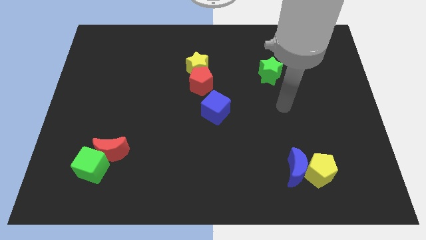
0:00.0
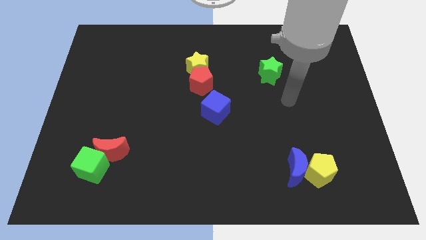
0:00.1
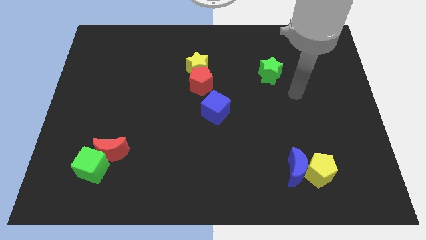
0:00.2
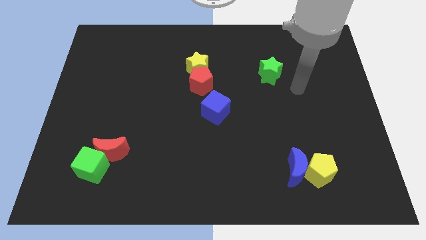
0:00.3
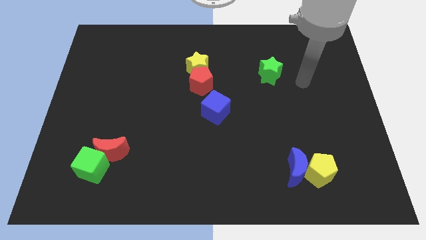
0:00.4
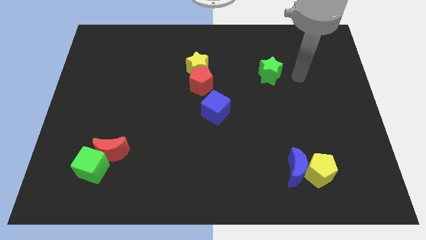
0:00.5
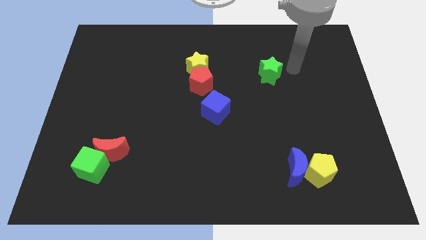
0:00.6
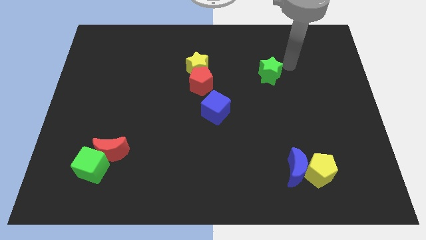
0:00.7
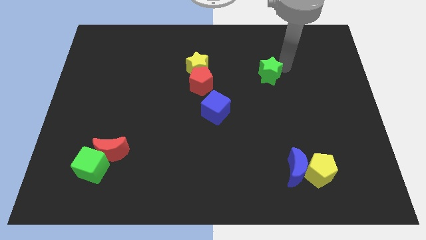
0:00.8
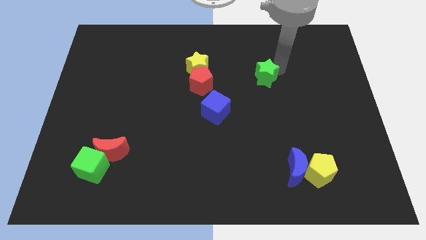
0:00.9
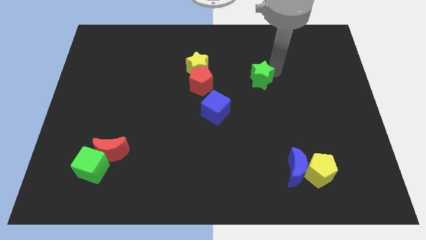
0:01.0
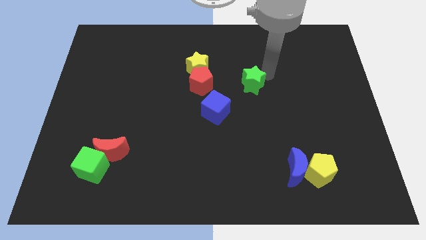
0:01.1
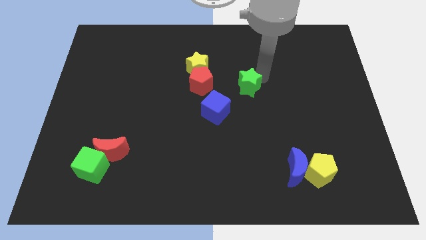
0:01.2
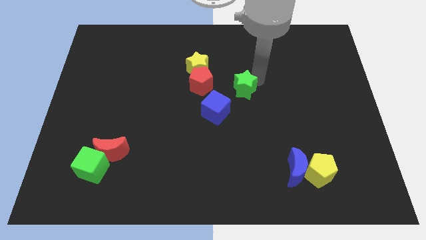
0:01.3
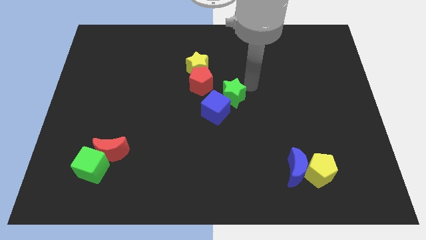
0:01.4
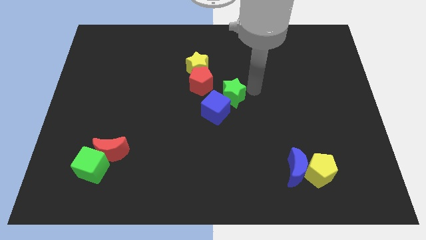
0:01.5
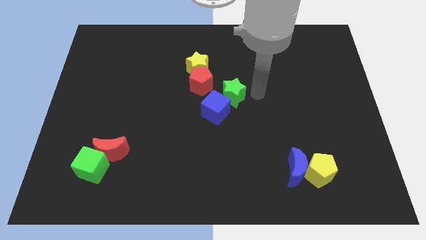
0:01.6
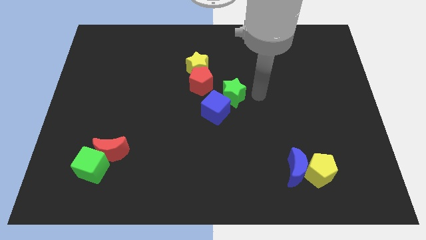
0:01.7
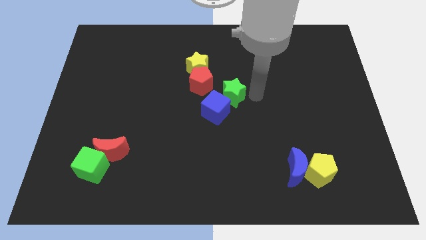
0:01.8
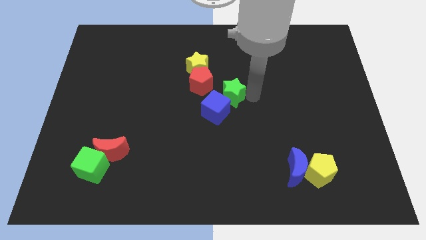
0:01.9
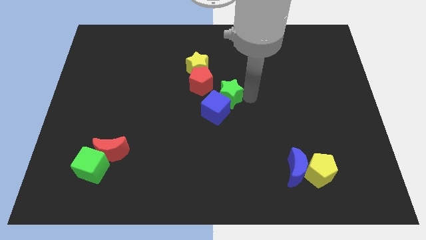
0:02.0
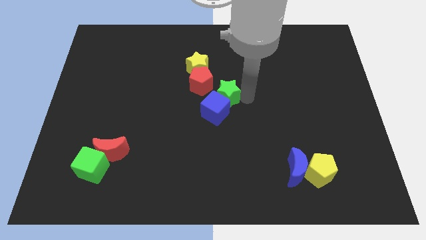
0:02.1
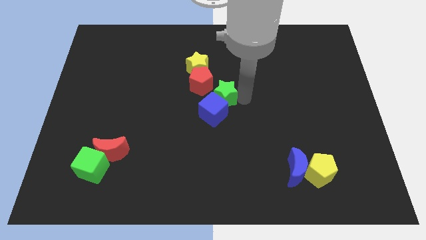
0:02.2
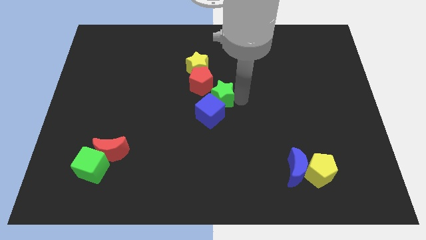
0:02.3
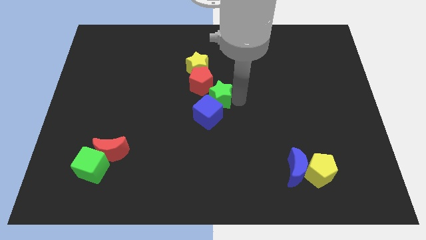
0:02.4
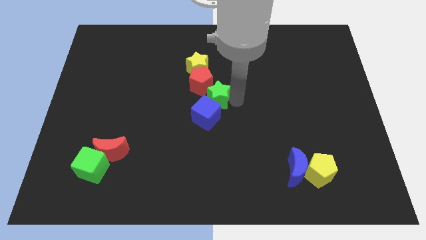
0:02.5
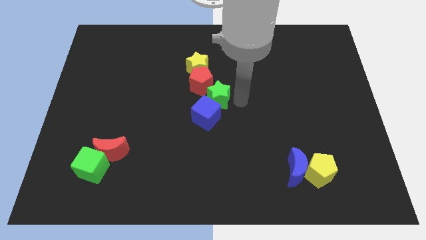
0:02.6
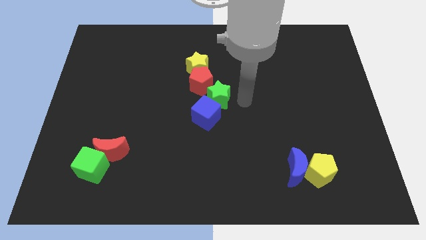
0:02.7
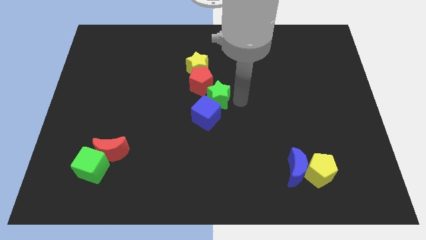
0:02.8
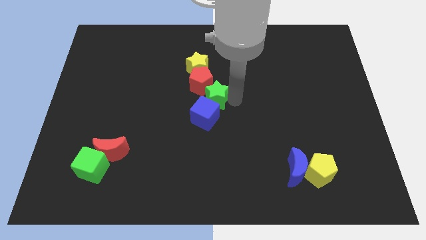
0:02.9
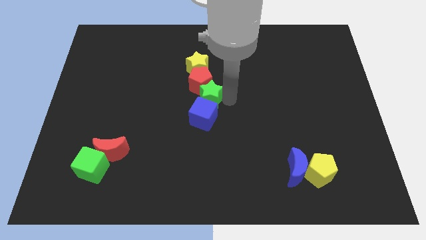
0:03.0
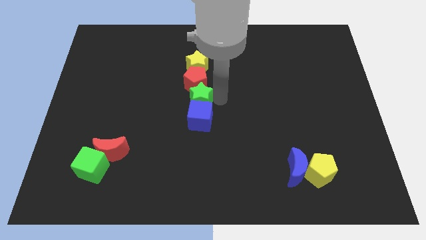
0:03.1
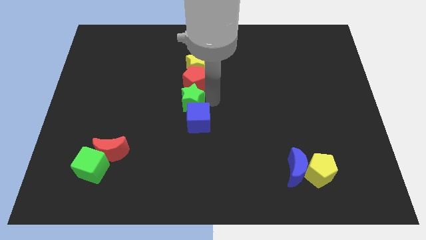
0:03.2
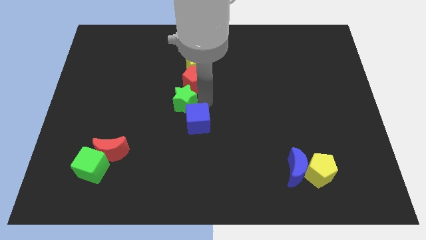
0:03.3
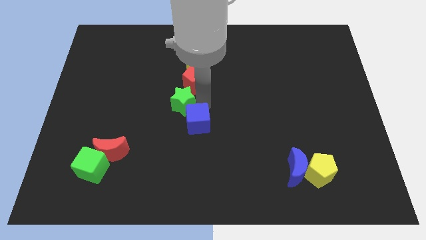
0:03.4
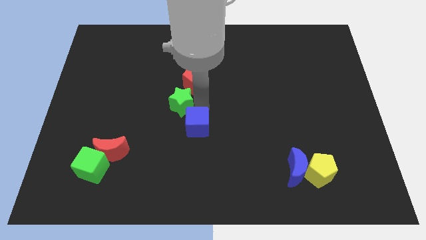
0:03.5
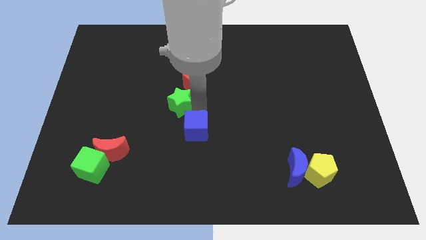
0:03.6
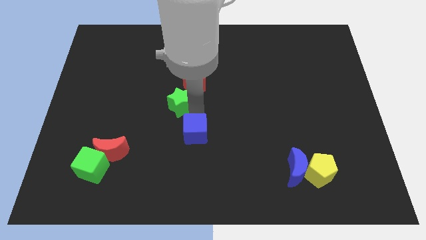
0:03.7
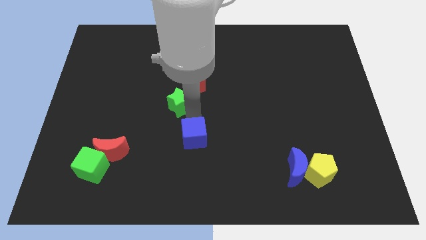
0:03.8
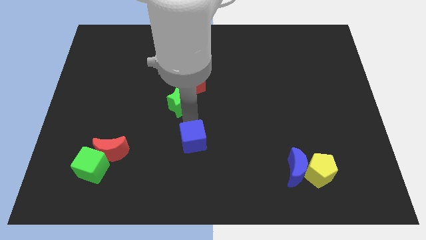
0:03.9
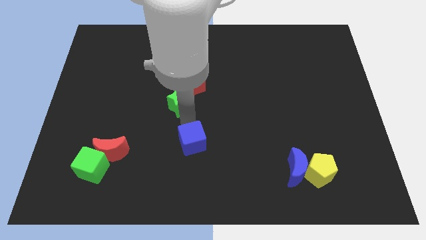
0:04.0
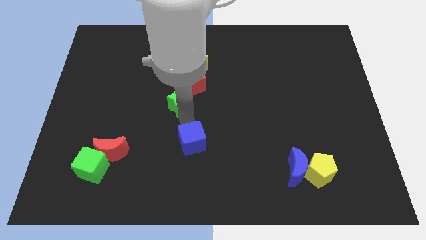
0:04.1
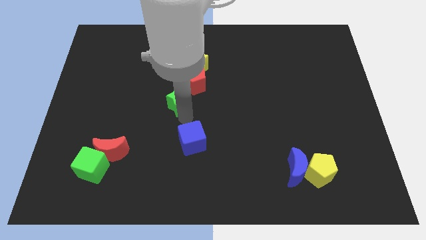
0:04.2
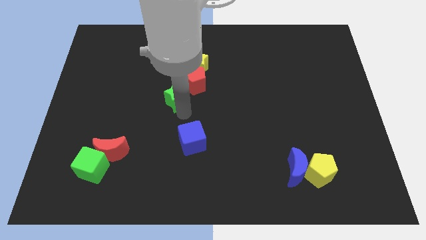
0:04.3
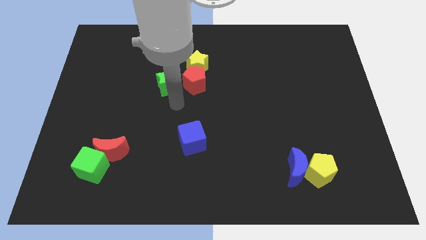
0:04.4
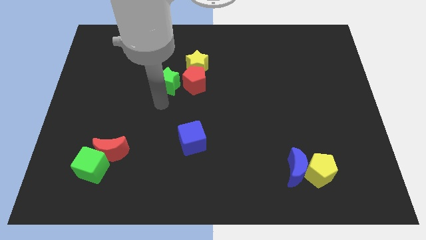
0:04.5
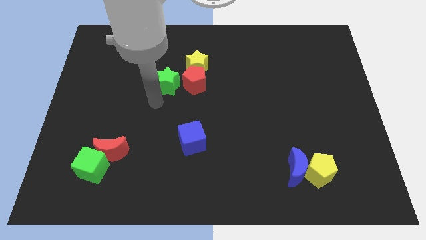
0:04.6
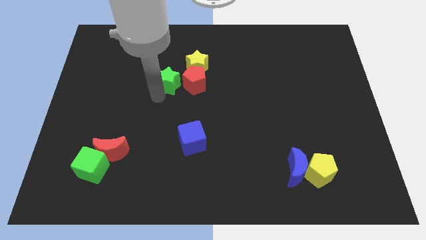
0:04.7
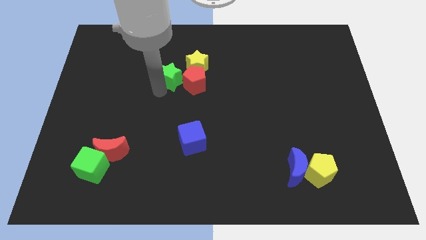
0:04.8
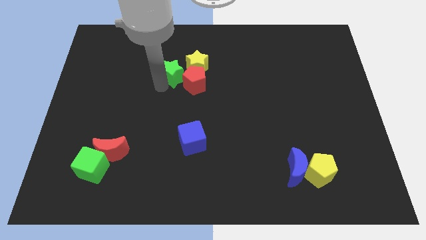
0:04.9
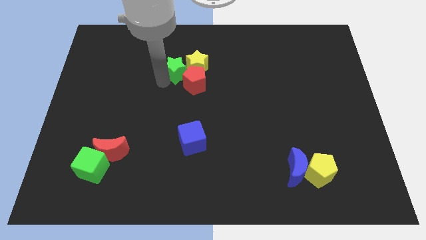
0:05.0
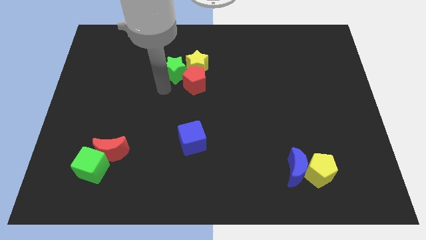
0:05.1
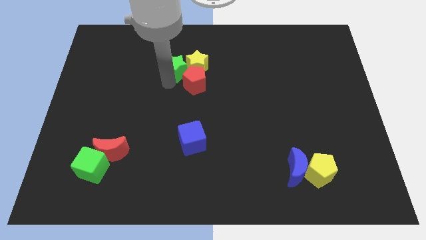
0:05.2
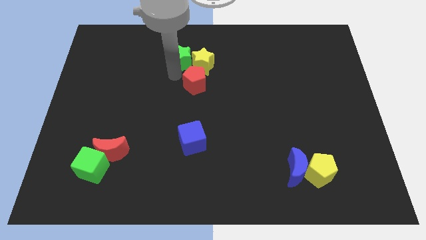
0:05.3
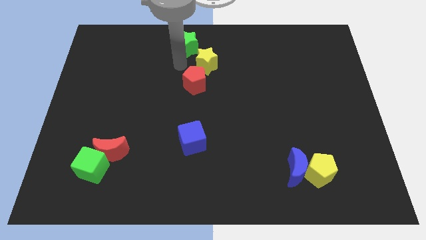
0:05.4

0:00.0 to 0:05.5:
push the green star to the towards your base

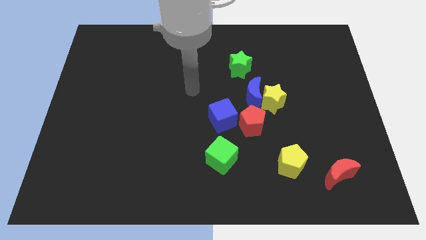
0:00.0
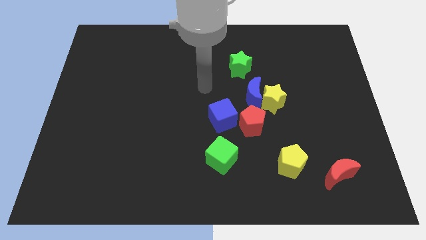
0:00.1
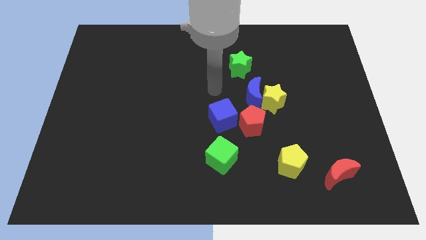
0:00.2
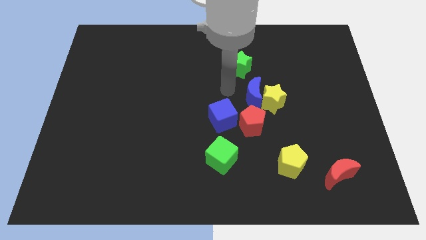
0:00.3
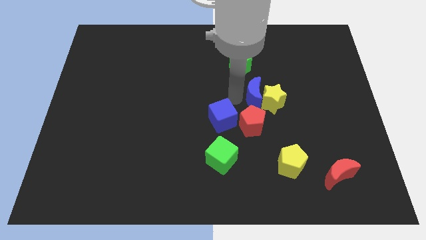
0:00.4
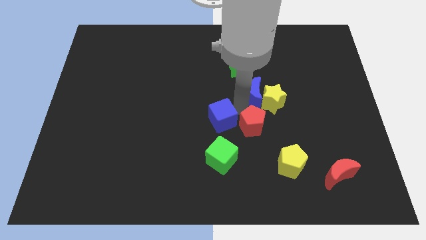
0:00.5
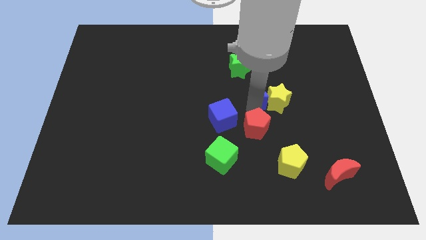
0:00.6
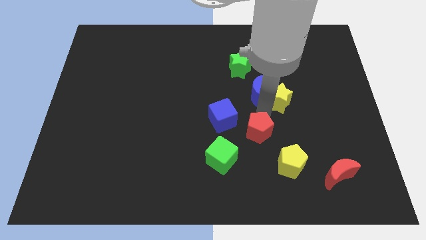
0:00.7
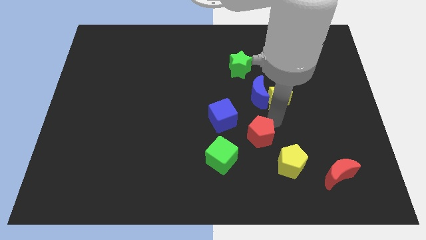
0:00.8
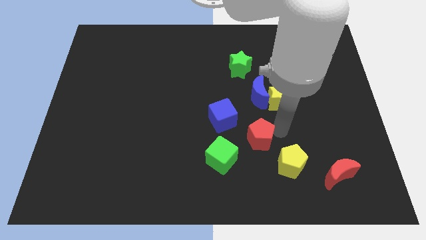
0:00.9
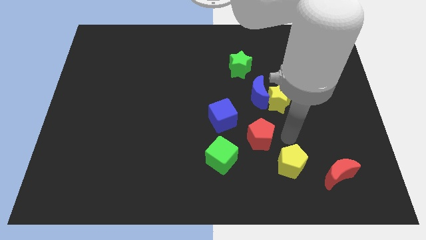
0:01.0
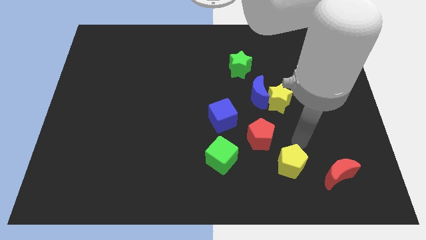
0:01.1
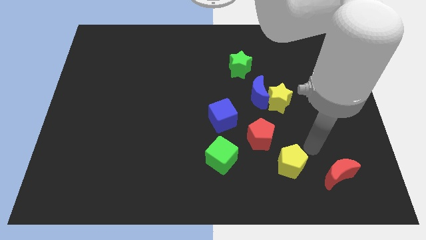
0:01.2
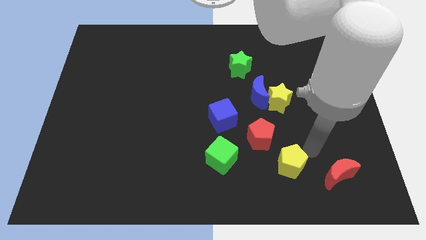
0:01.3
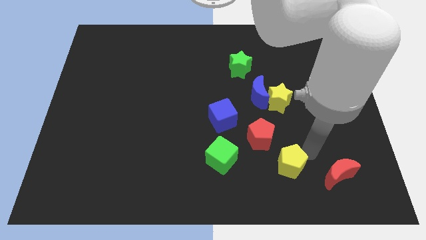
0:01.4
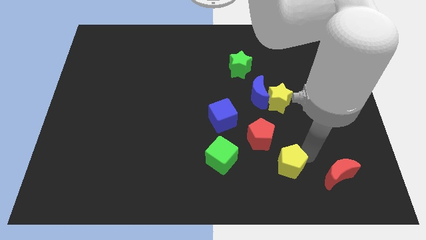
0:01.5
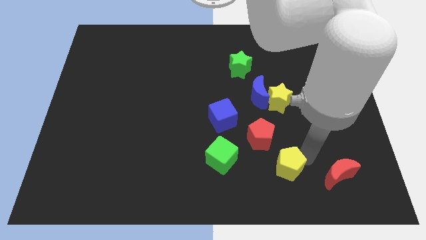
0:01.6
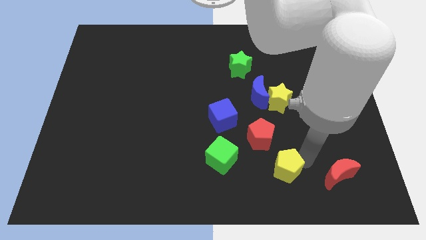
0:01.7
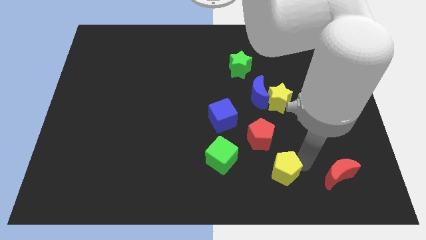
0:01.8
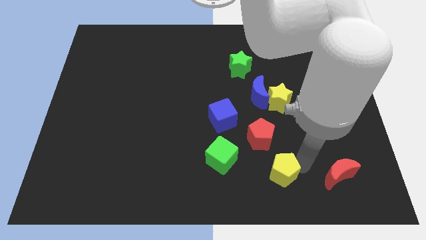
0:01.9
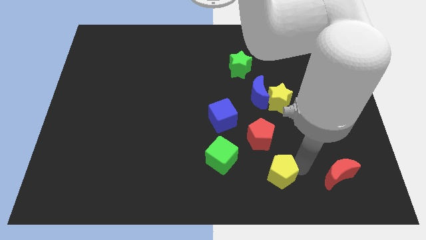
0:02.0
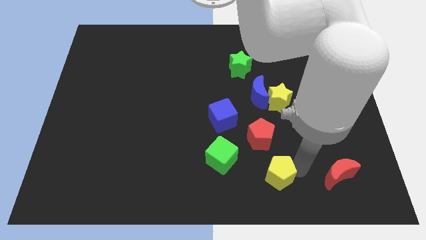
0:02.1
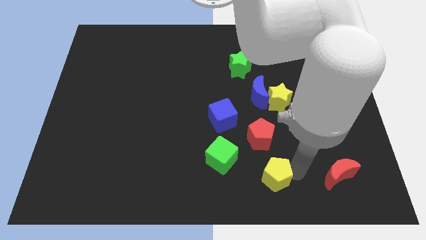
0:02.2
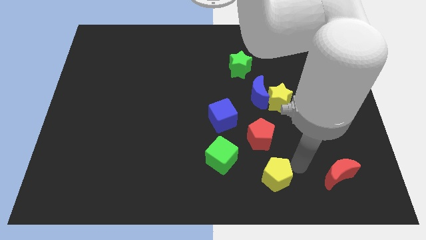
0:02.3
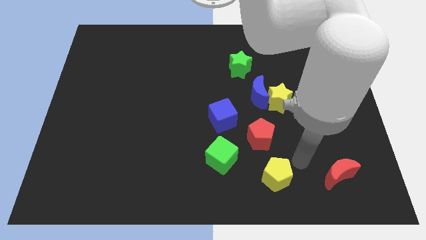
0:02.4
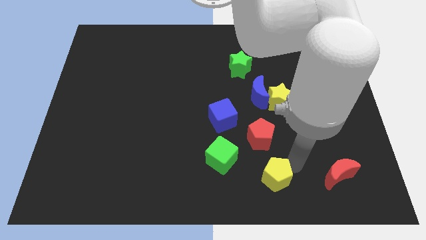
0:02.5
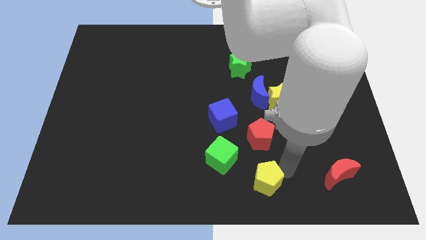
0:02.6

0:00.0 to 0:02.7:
slide the yellow pentagon to the bottom
